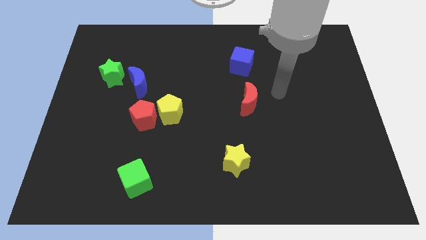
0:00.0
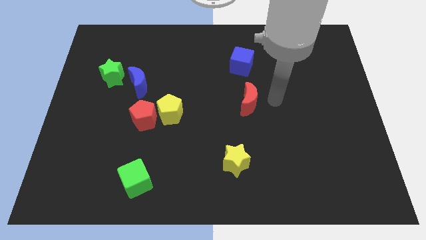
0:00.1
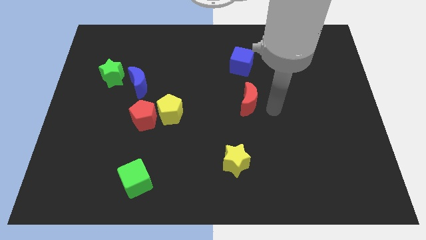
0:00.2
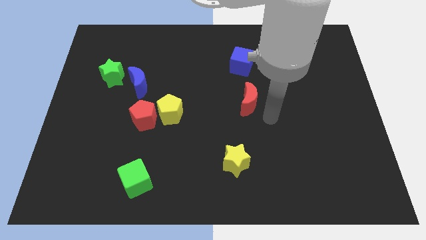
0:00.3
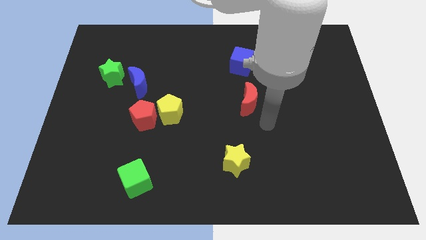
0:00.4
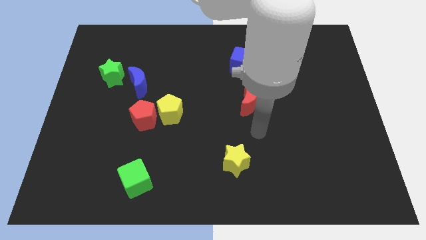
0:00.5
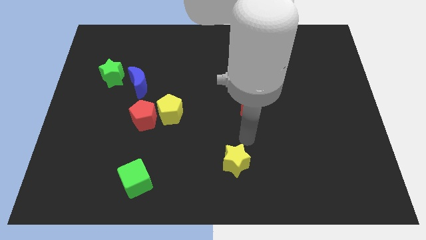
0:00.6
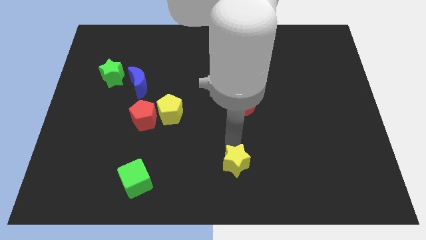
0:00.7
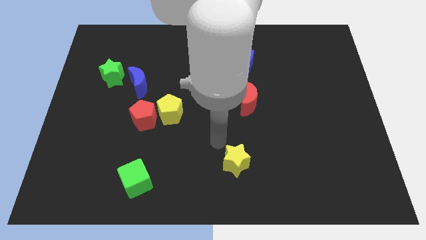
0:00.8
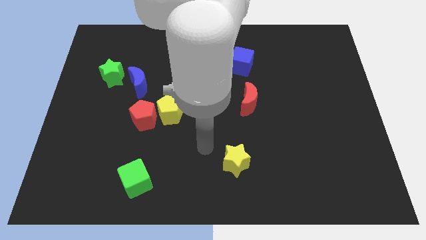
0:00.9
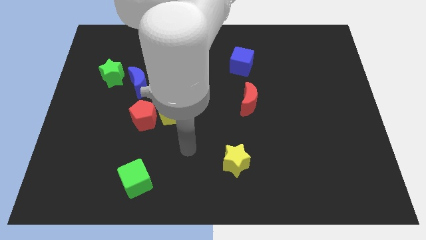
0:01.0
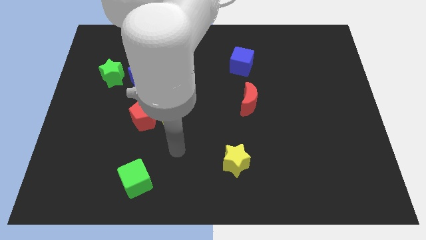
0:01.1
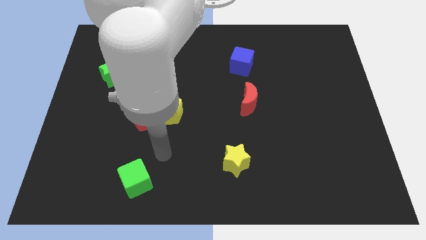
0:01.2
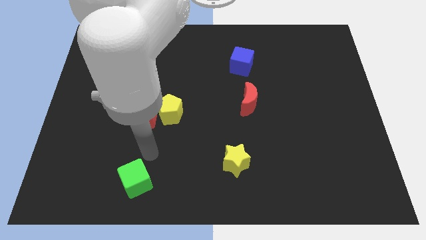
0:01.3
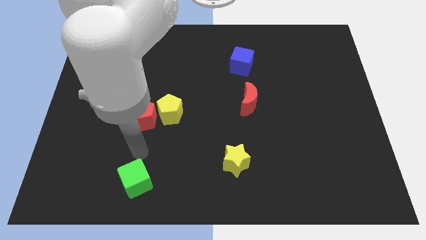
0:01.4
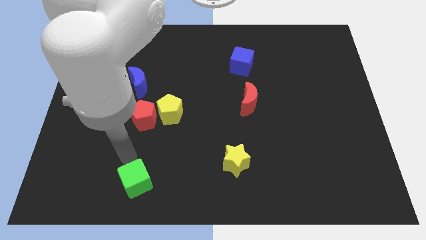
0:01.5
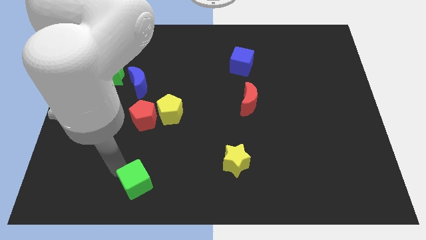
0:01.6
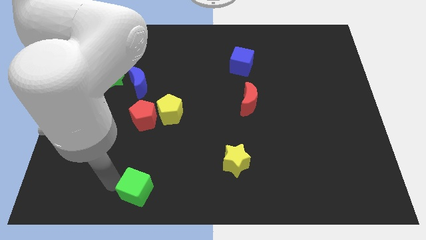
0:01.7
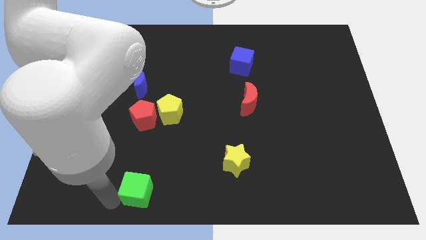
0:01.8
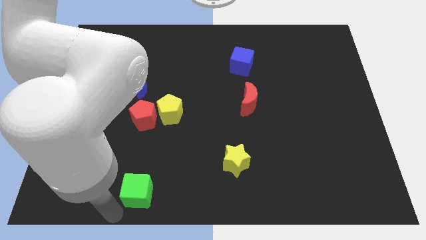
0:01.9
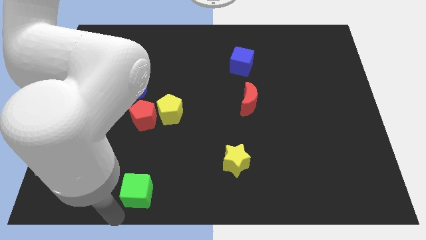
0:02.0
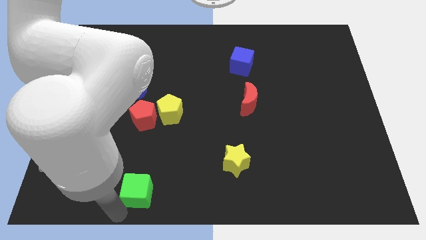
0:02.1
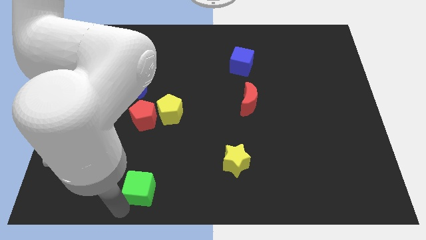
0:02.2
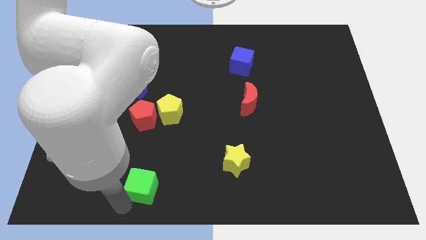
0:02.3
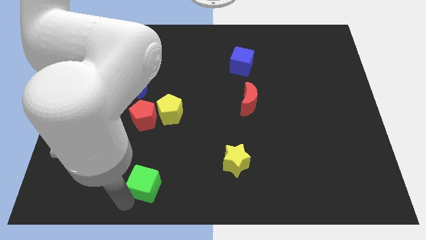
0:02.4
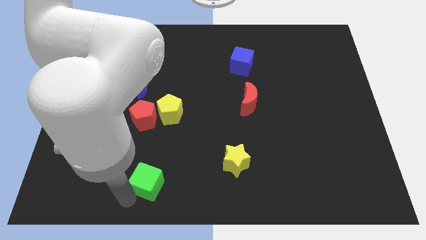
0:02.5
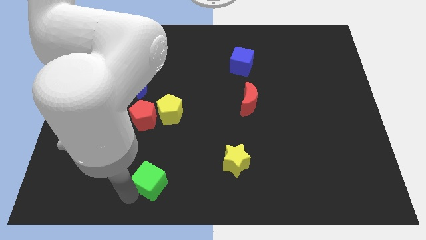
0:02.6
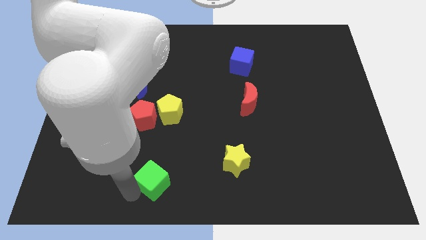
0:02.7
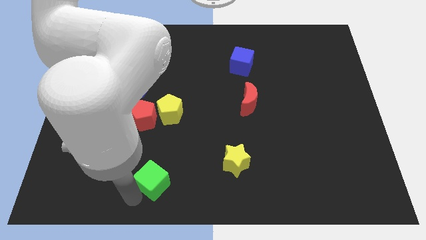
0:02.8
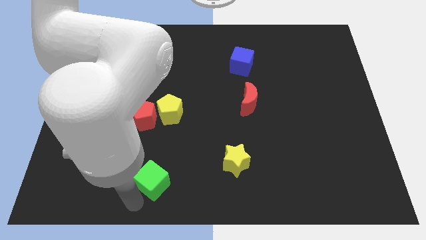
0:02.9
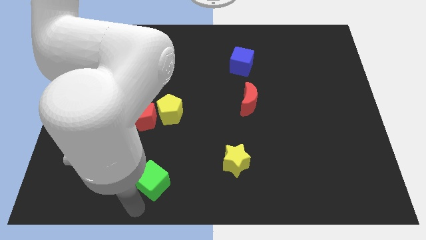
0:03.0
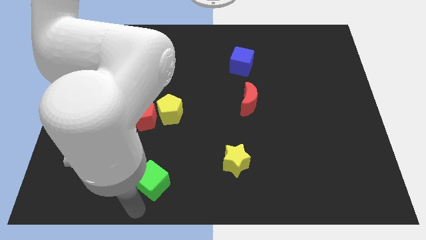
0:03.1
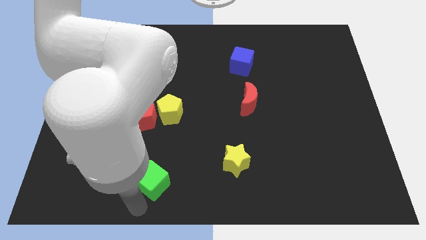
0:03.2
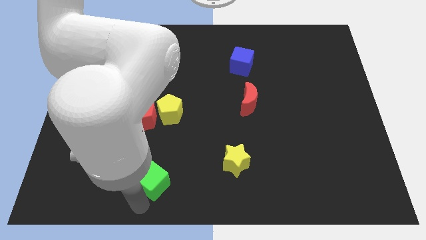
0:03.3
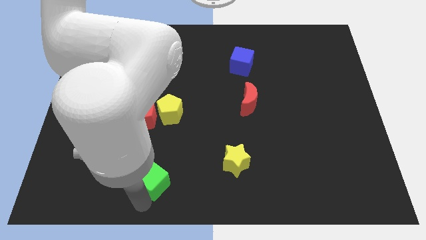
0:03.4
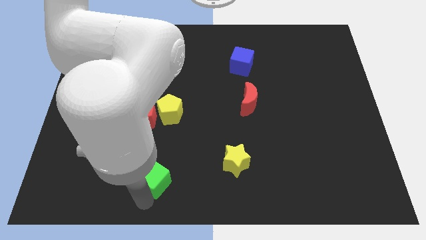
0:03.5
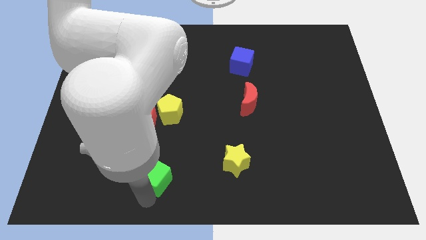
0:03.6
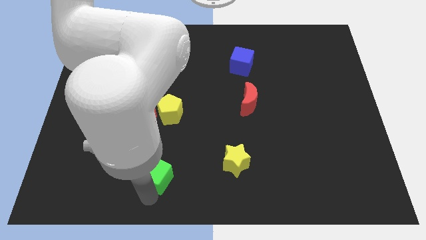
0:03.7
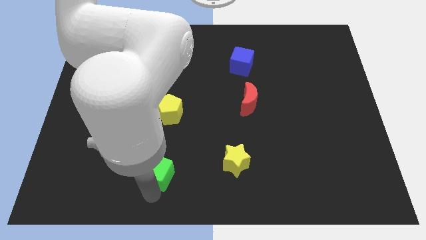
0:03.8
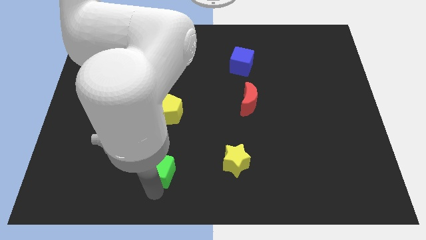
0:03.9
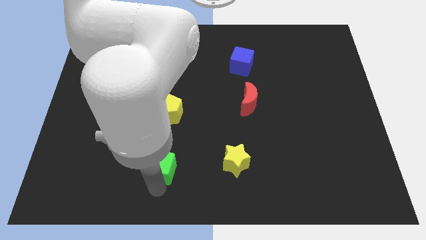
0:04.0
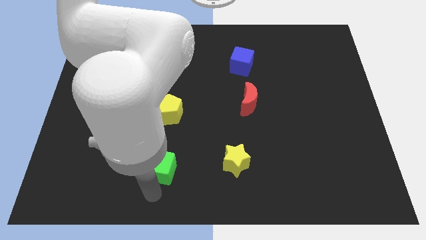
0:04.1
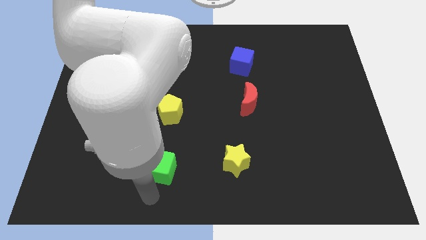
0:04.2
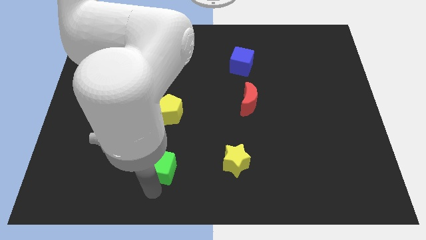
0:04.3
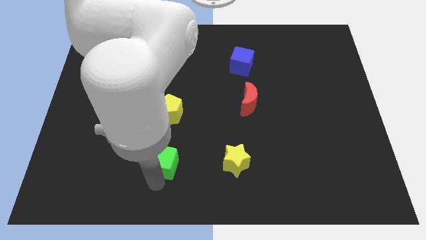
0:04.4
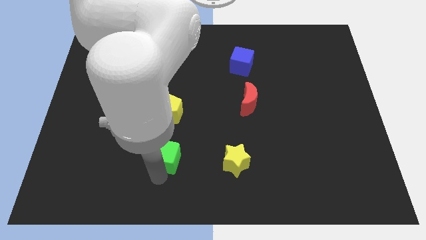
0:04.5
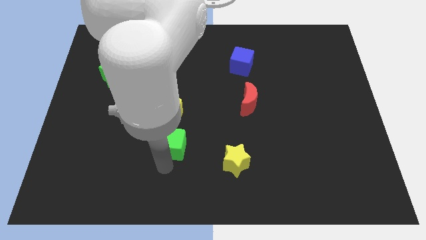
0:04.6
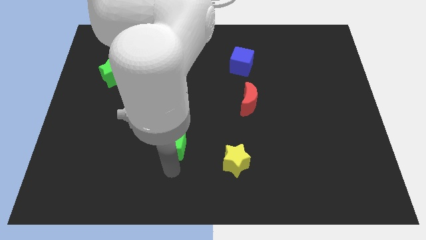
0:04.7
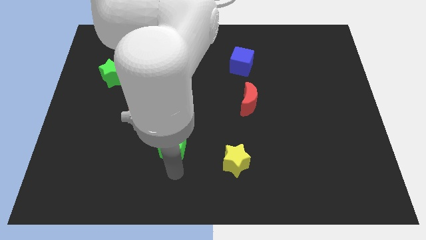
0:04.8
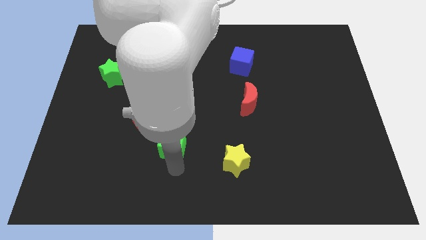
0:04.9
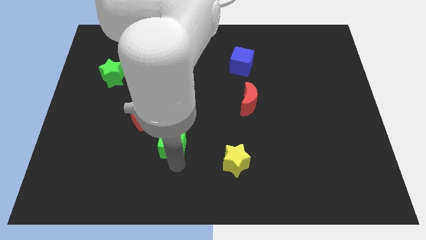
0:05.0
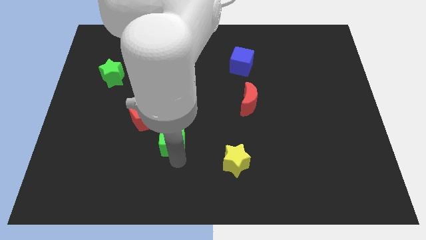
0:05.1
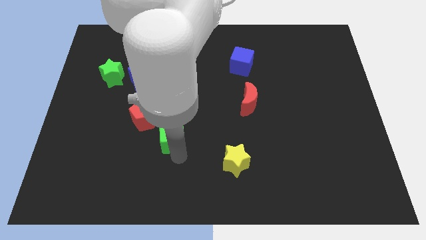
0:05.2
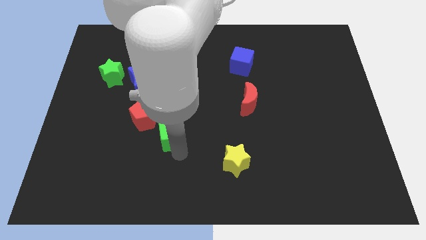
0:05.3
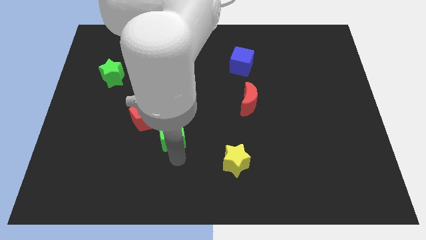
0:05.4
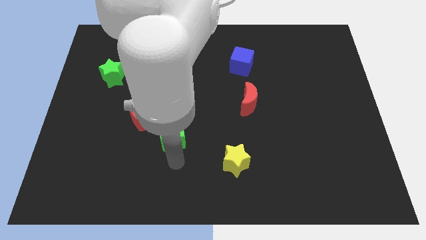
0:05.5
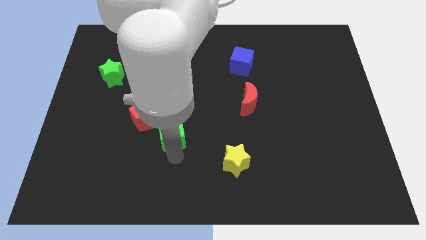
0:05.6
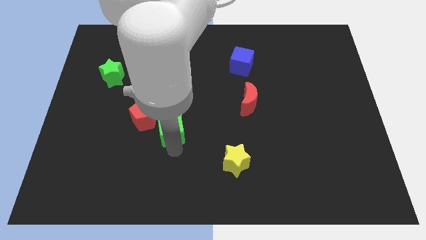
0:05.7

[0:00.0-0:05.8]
move the green cube next to the yellow pentagon

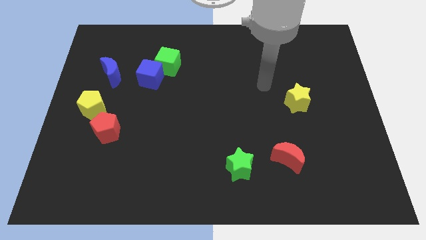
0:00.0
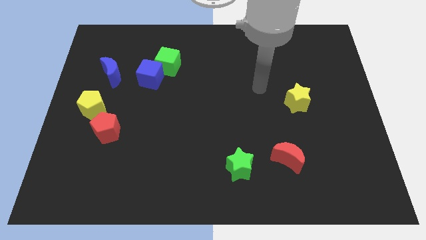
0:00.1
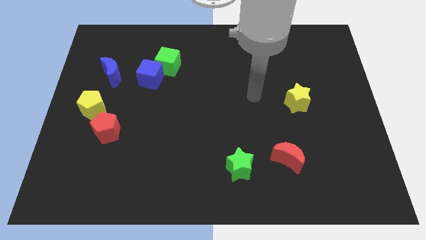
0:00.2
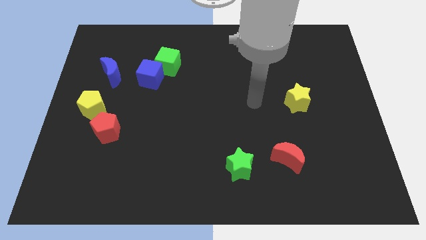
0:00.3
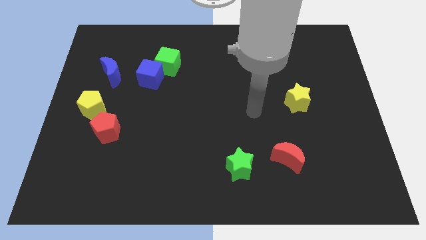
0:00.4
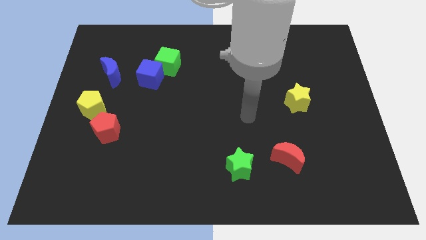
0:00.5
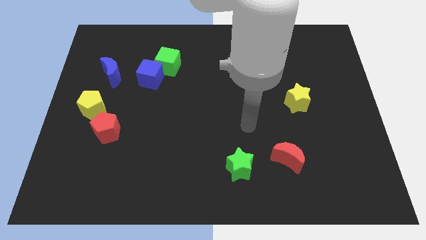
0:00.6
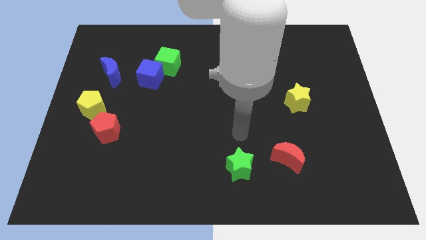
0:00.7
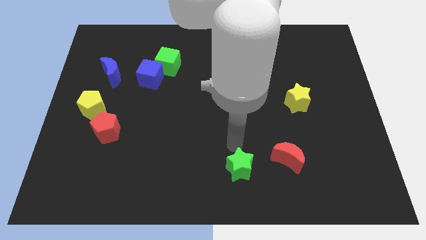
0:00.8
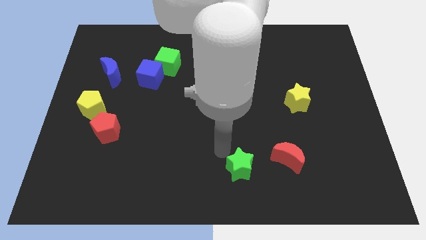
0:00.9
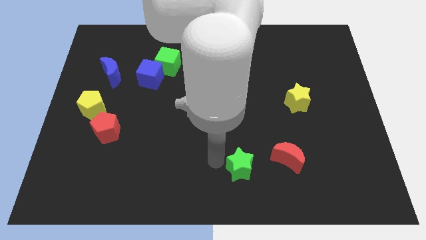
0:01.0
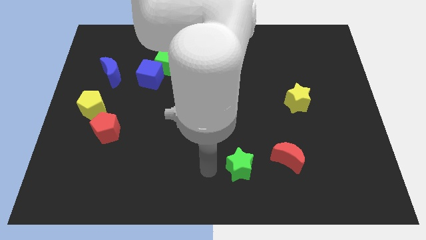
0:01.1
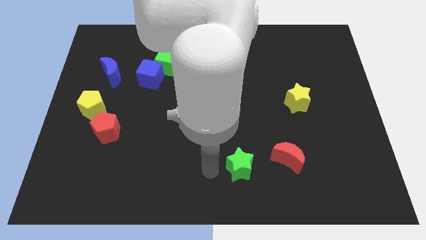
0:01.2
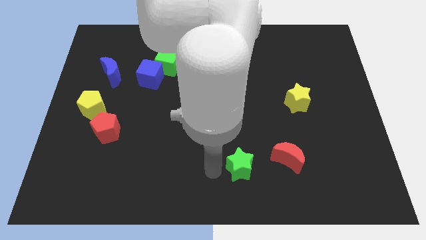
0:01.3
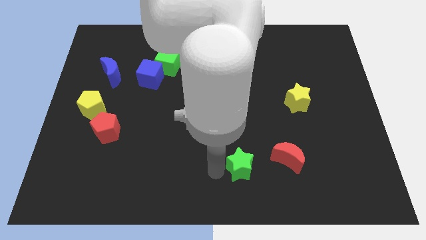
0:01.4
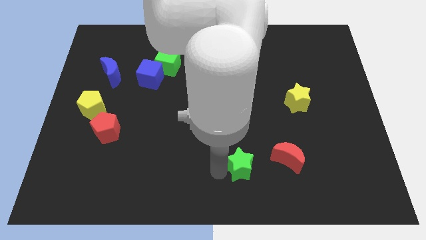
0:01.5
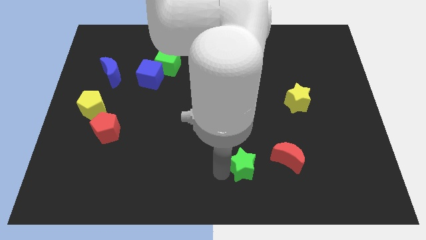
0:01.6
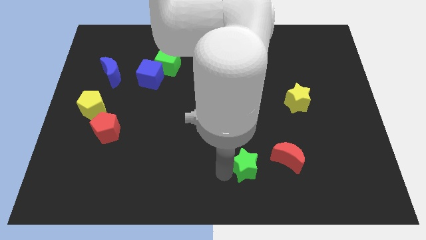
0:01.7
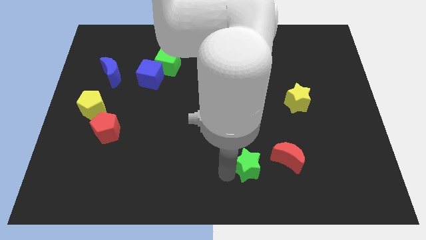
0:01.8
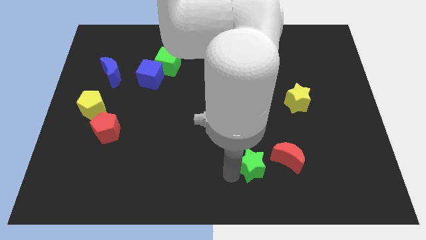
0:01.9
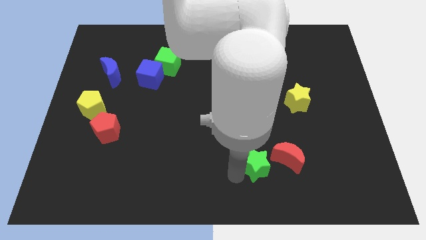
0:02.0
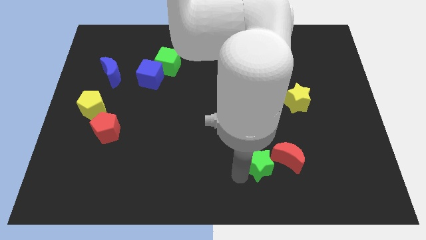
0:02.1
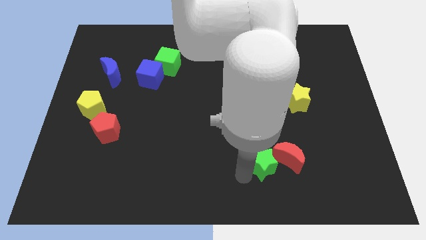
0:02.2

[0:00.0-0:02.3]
put the green star close to the red moon
